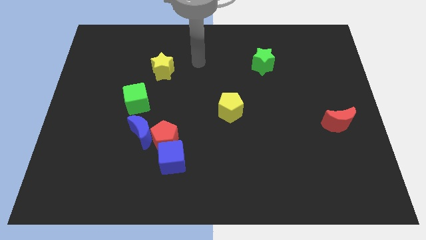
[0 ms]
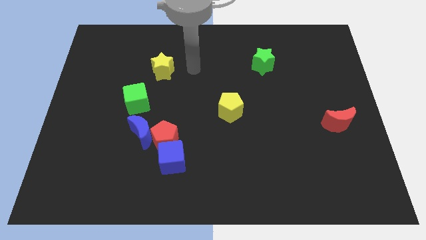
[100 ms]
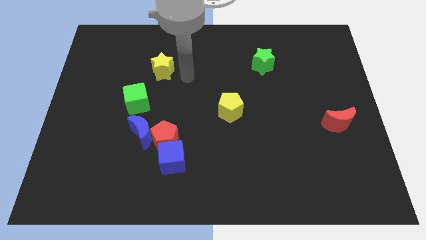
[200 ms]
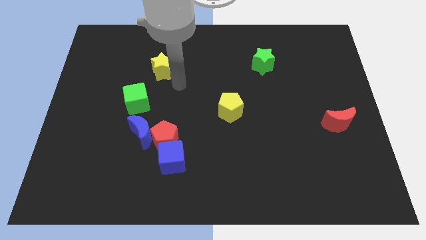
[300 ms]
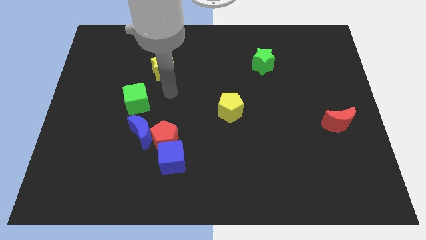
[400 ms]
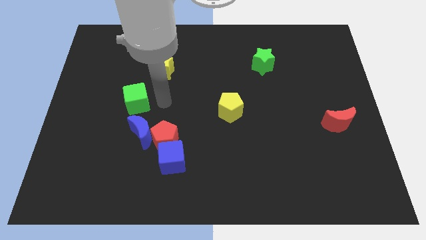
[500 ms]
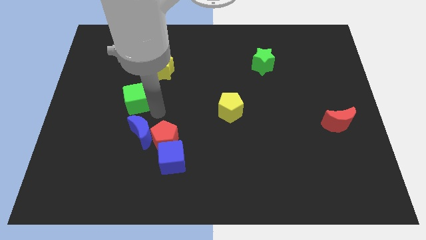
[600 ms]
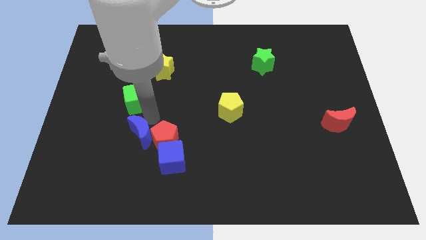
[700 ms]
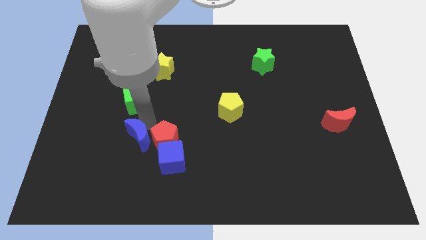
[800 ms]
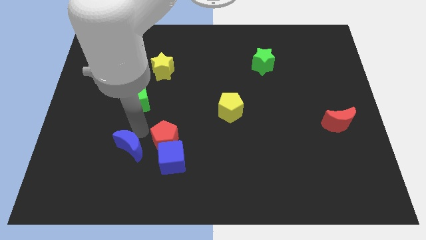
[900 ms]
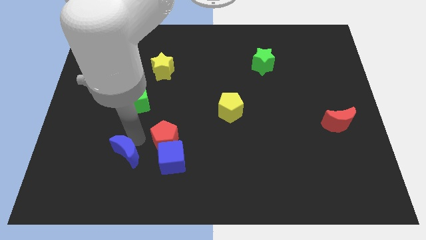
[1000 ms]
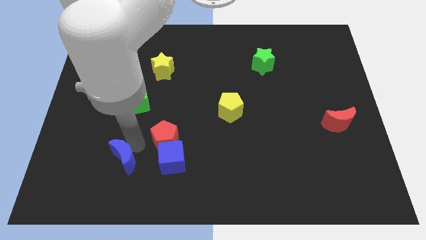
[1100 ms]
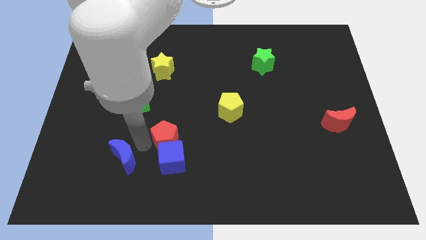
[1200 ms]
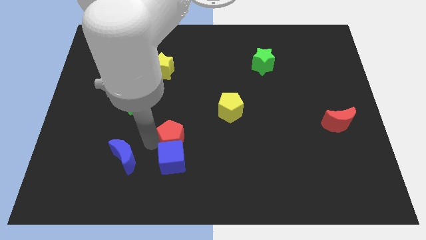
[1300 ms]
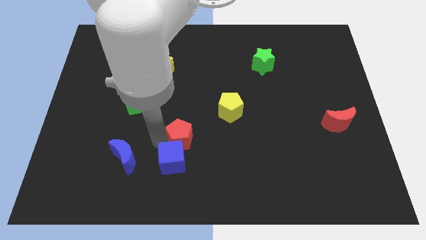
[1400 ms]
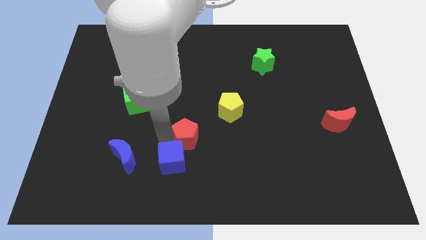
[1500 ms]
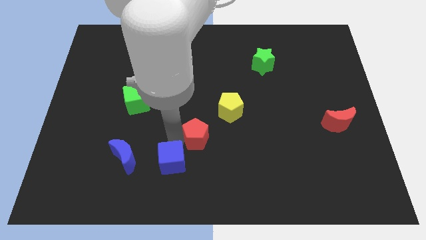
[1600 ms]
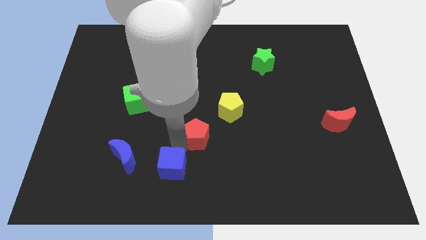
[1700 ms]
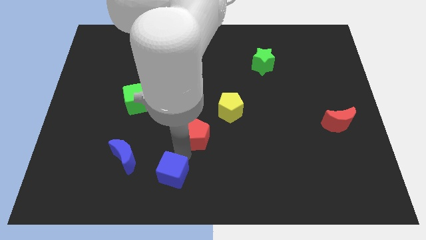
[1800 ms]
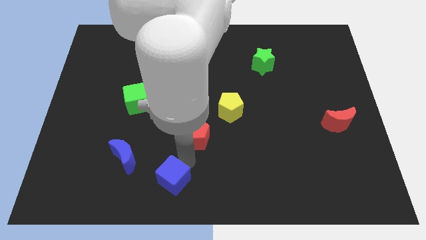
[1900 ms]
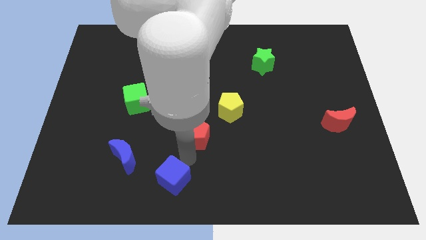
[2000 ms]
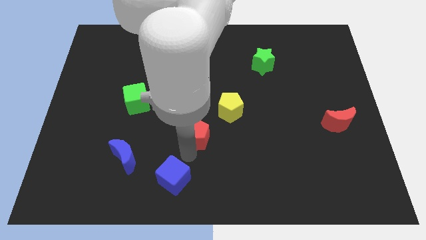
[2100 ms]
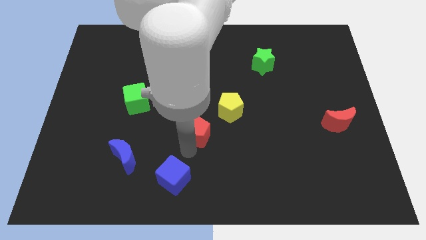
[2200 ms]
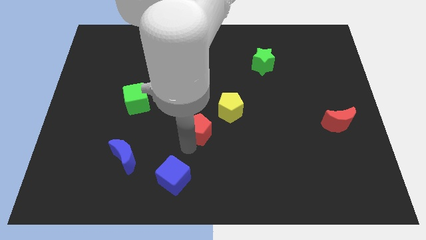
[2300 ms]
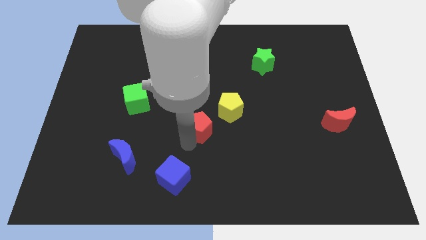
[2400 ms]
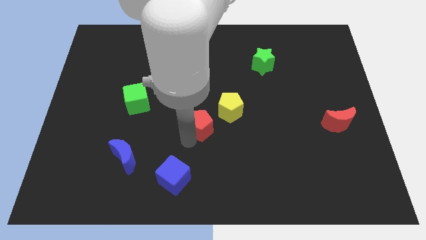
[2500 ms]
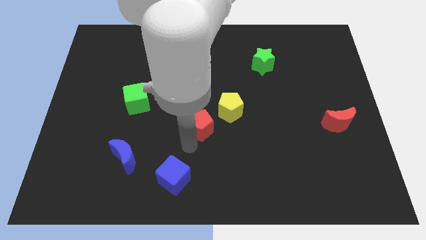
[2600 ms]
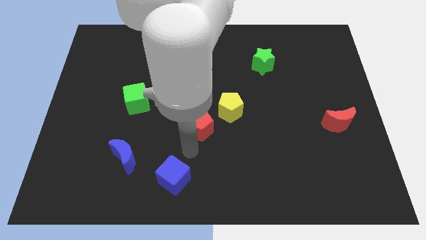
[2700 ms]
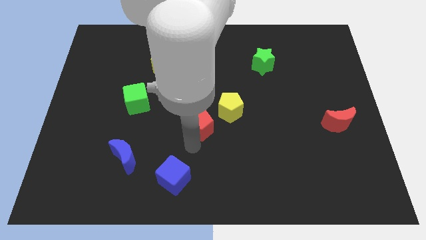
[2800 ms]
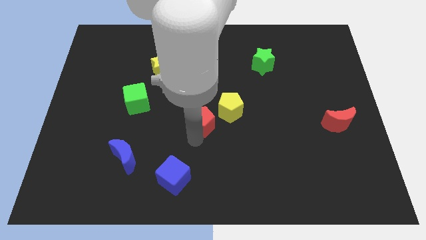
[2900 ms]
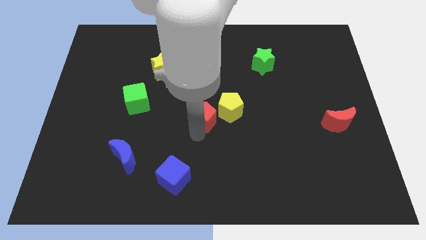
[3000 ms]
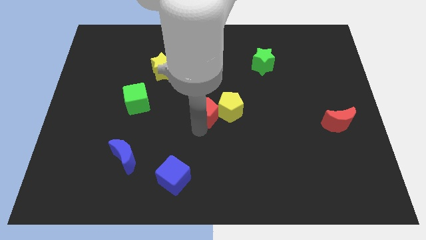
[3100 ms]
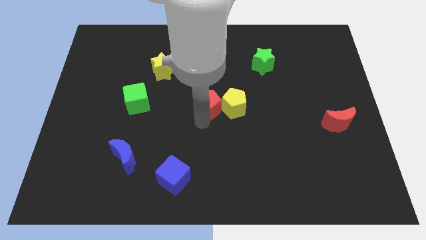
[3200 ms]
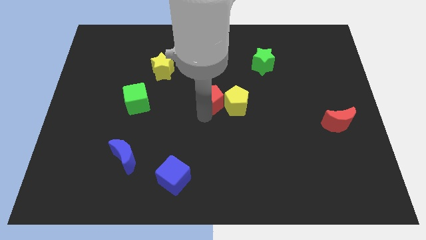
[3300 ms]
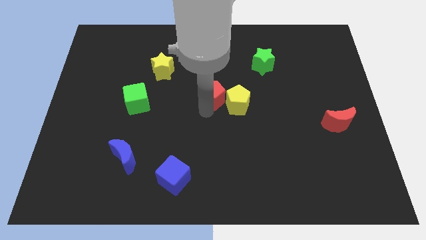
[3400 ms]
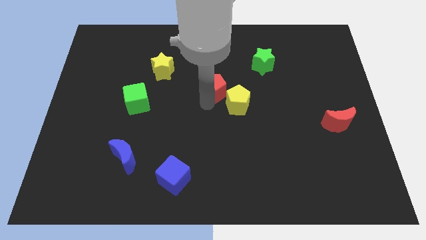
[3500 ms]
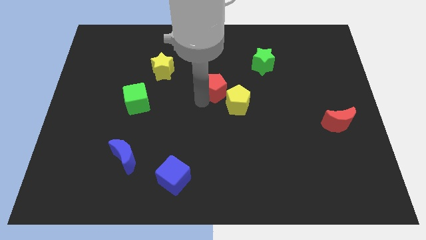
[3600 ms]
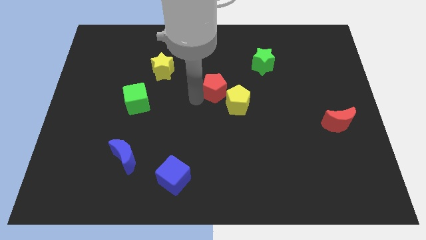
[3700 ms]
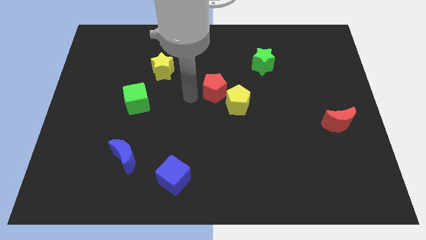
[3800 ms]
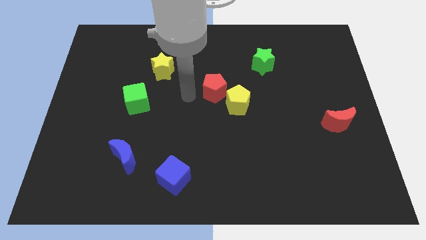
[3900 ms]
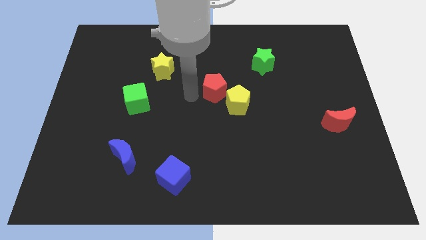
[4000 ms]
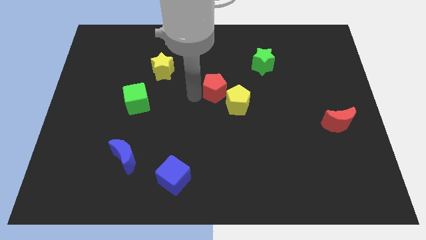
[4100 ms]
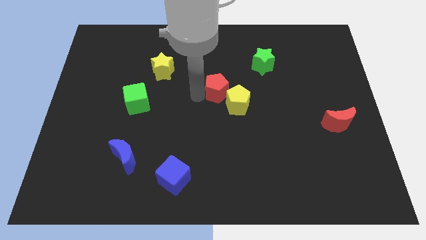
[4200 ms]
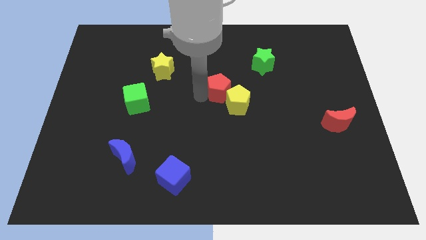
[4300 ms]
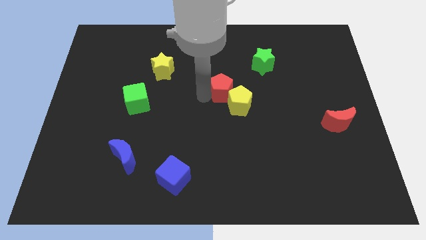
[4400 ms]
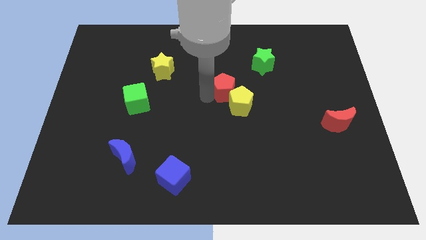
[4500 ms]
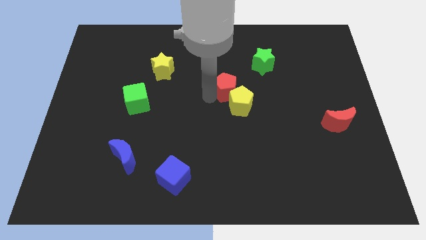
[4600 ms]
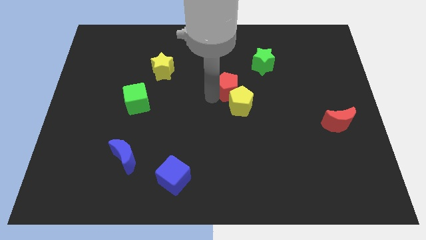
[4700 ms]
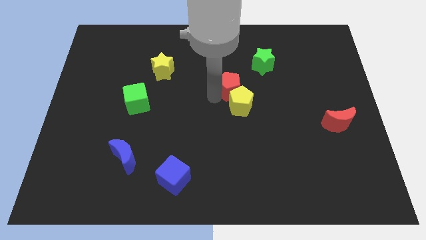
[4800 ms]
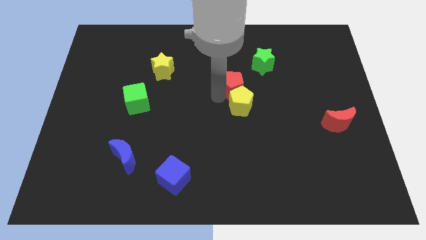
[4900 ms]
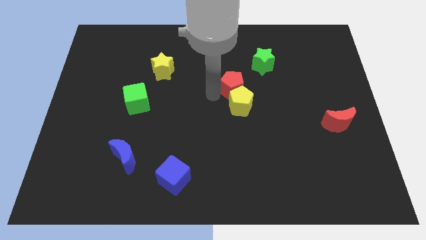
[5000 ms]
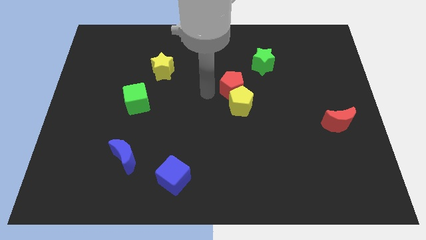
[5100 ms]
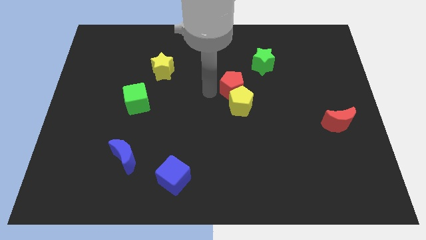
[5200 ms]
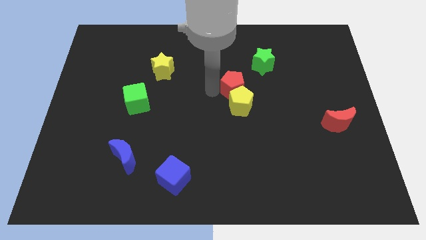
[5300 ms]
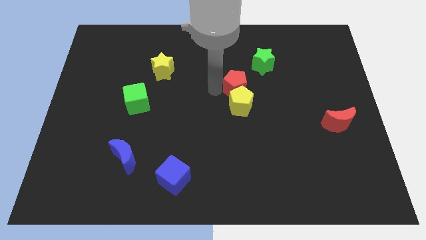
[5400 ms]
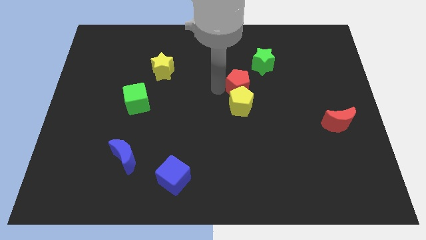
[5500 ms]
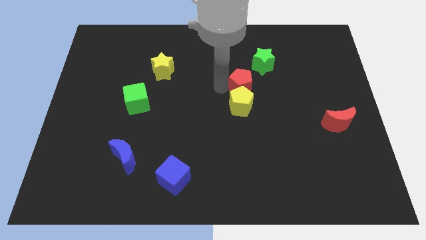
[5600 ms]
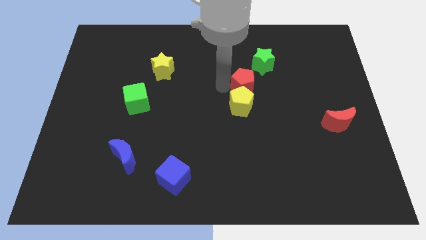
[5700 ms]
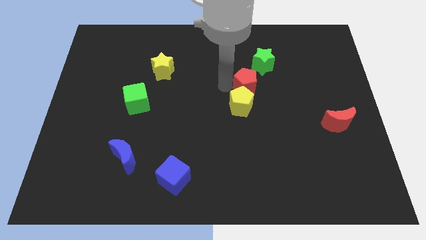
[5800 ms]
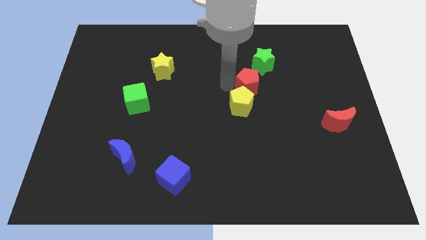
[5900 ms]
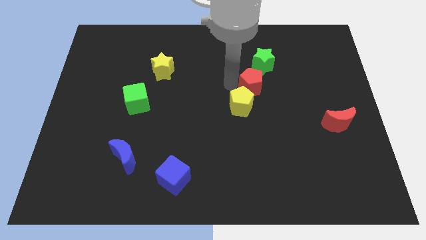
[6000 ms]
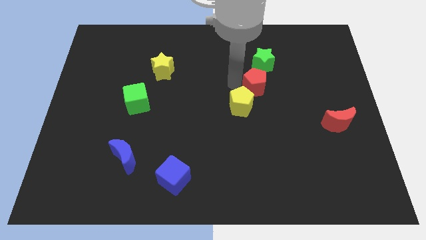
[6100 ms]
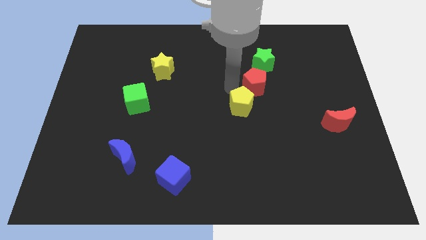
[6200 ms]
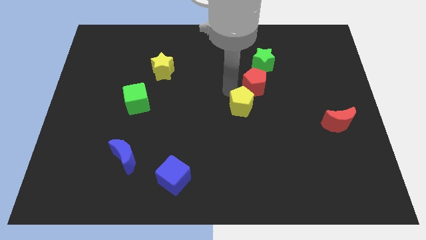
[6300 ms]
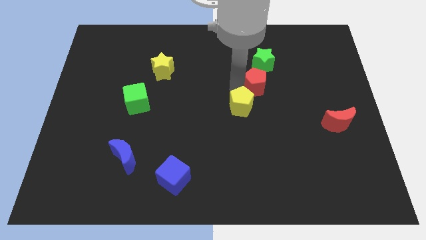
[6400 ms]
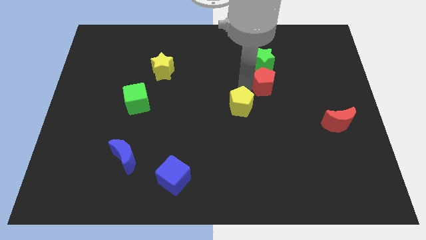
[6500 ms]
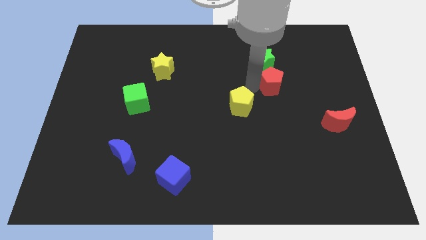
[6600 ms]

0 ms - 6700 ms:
push the red pentagon diagonally down and to the right of the green star
